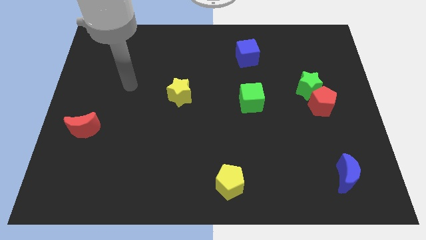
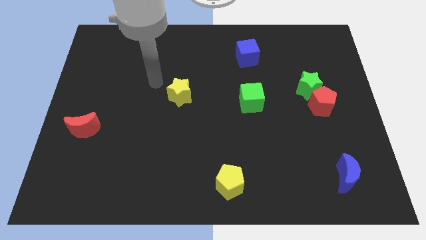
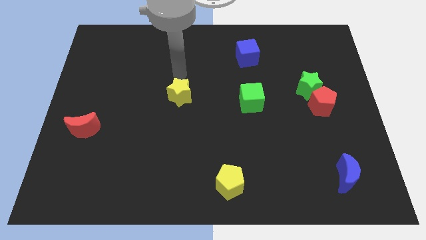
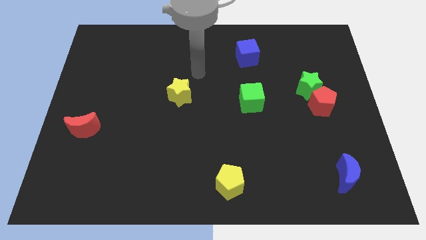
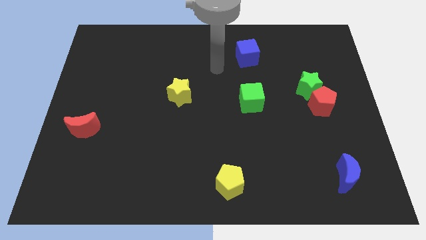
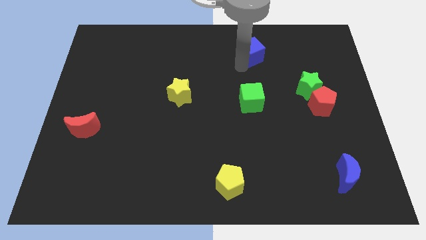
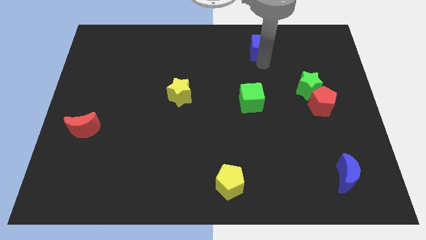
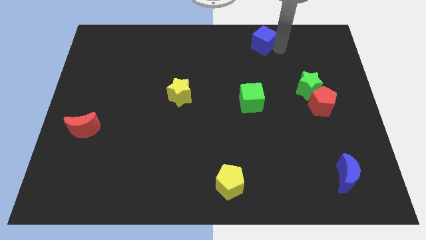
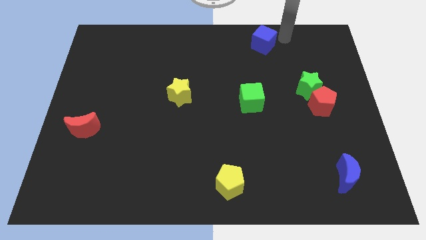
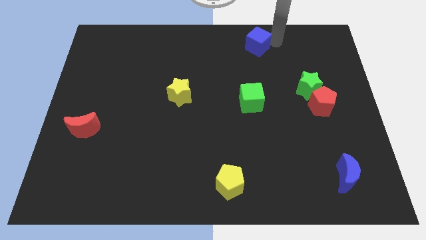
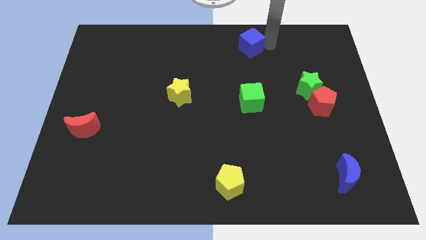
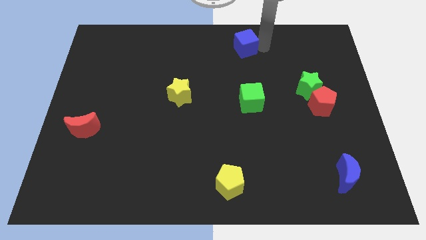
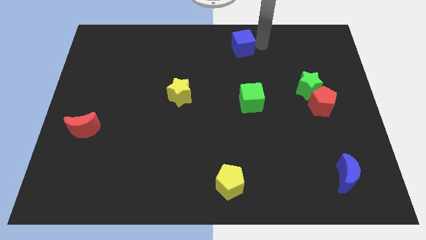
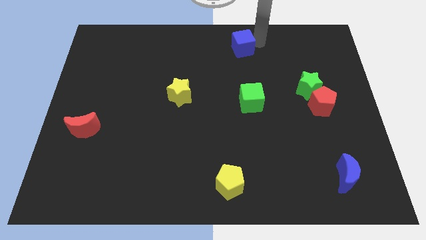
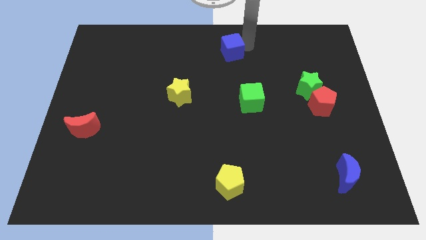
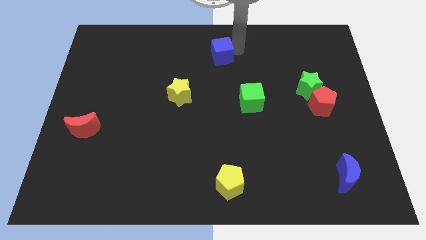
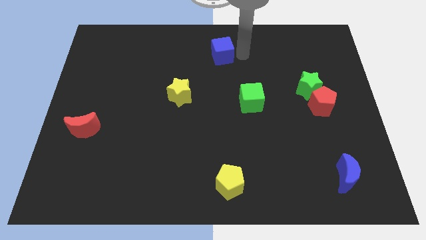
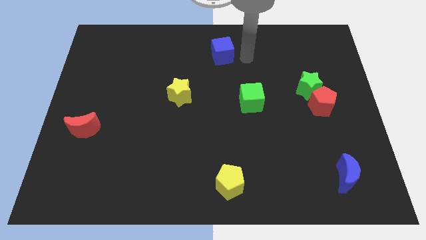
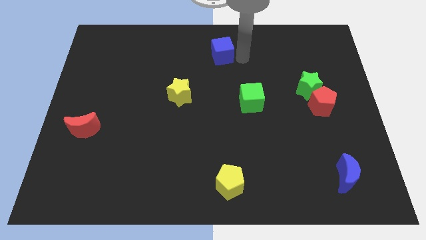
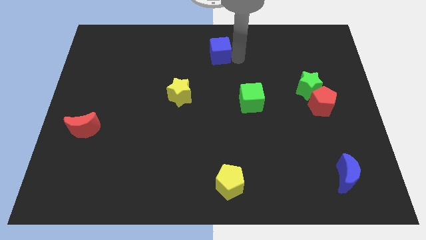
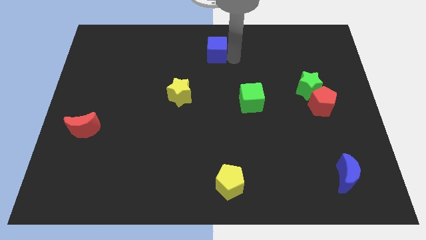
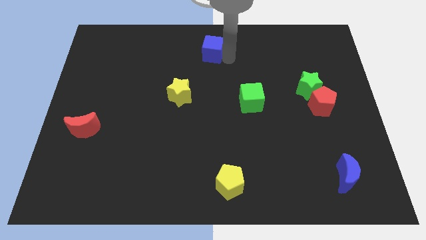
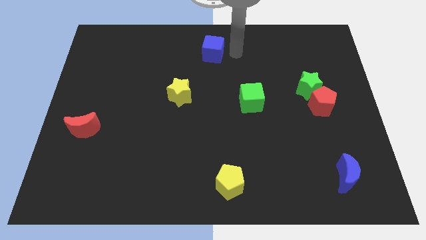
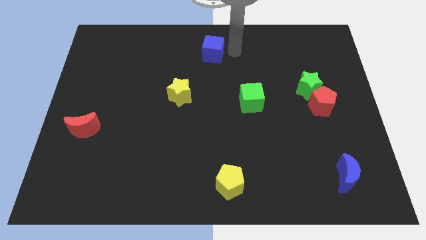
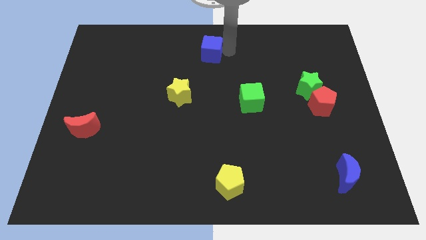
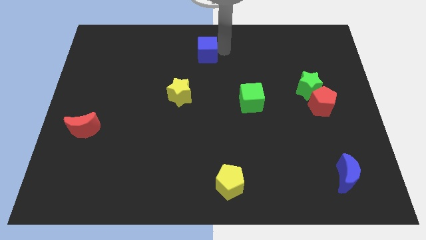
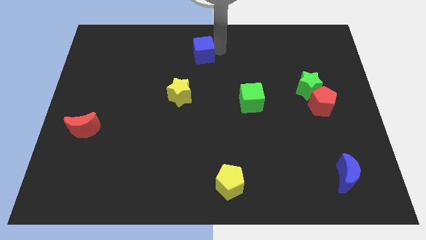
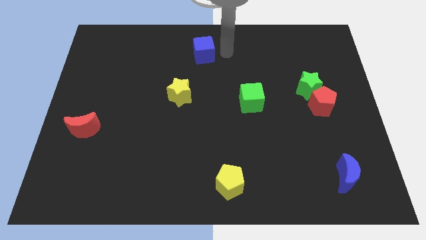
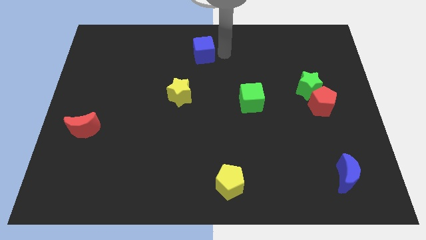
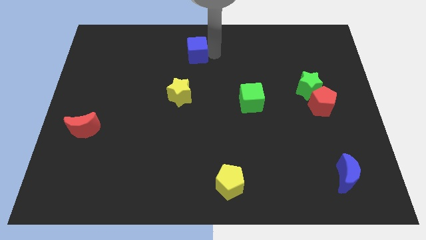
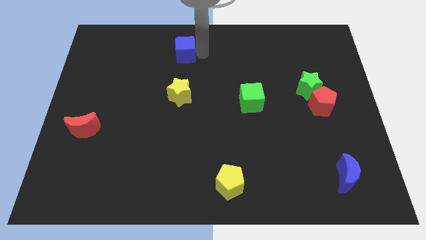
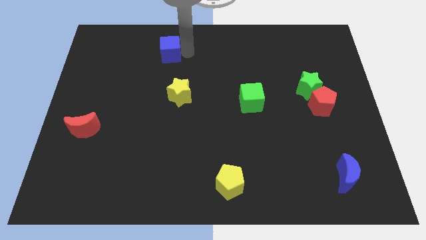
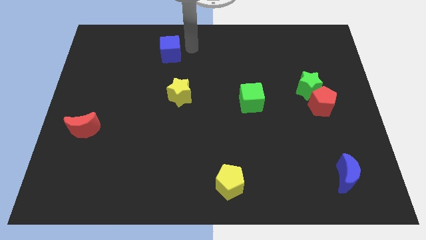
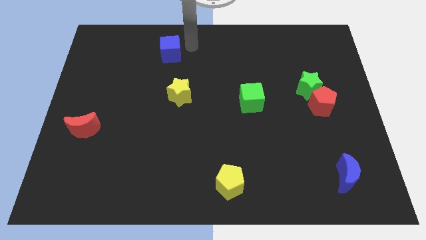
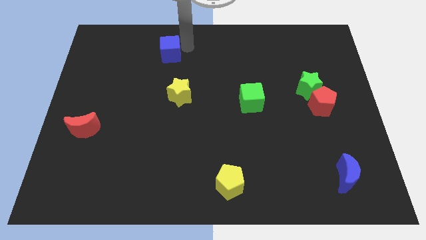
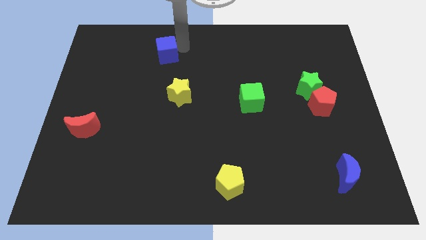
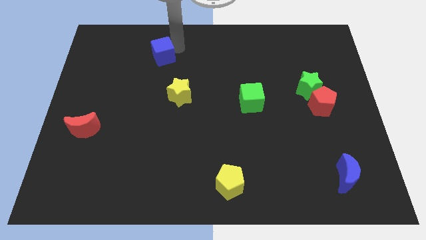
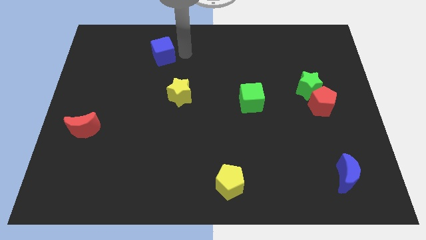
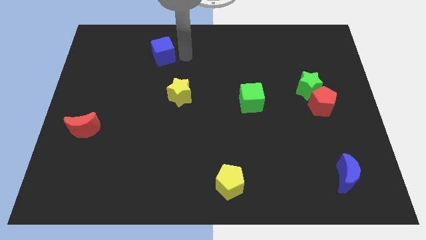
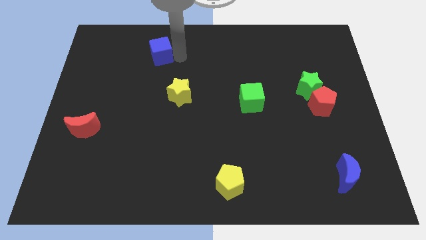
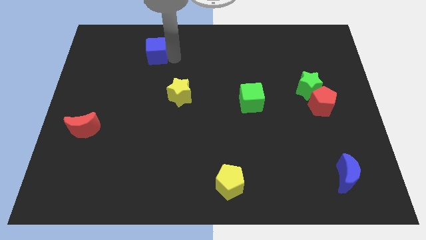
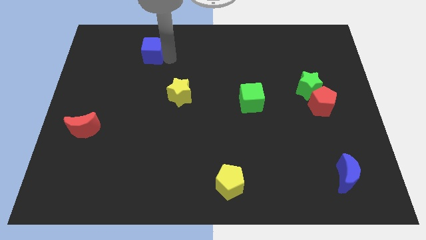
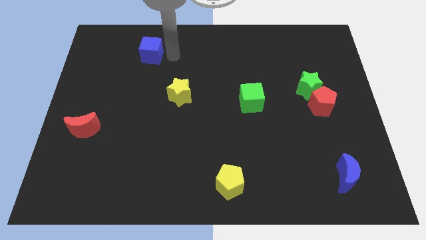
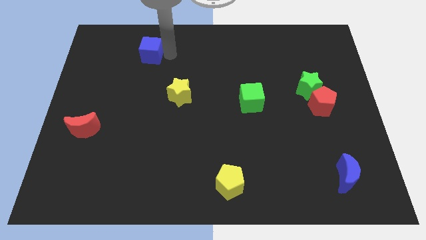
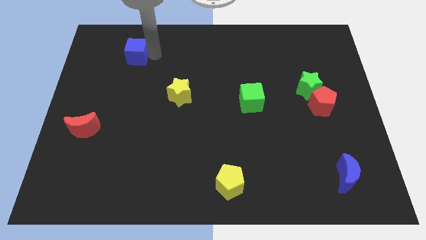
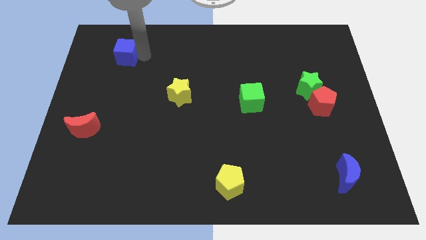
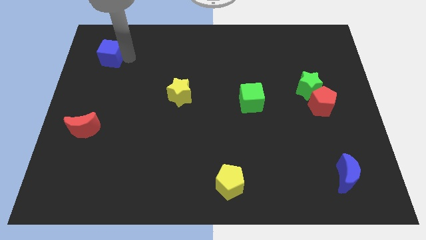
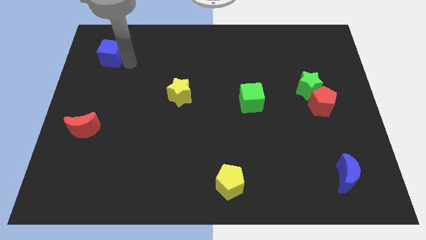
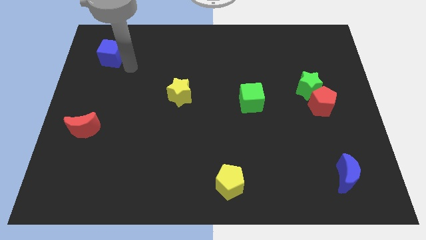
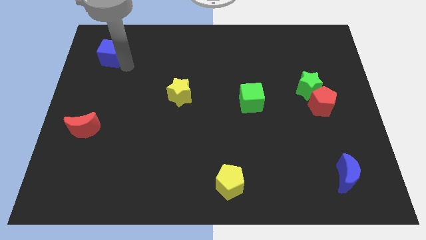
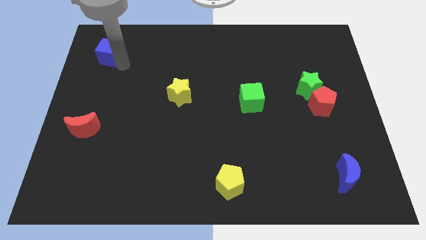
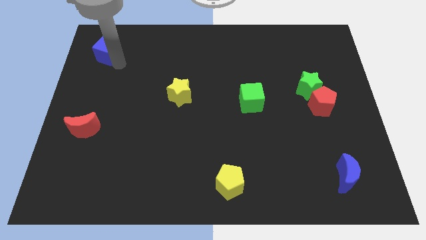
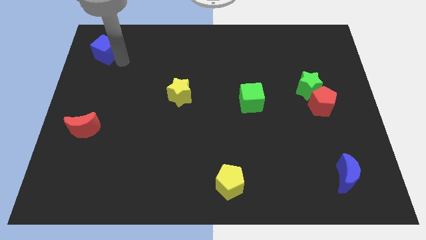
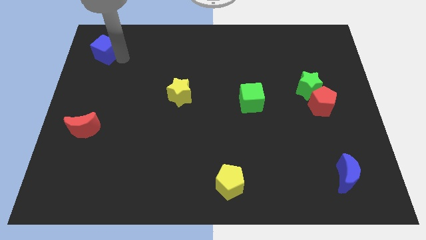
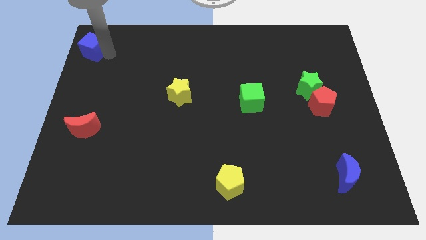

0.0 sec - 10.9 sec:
push the blue cube to the top left of the board

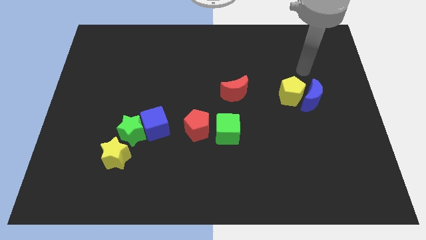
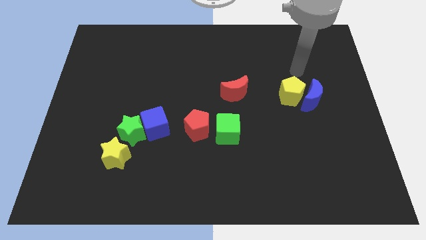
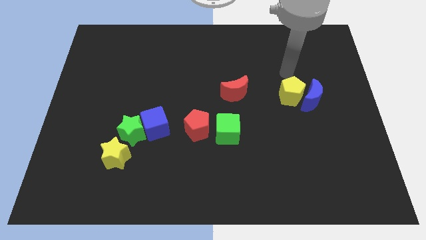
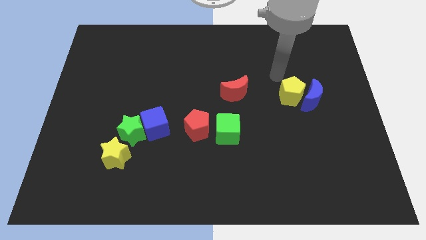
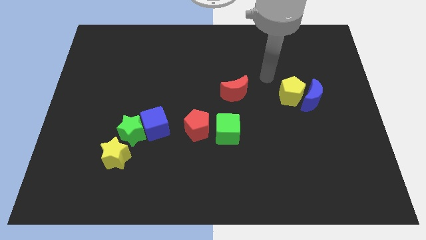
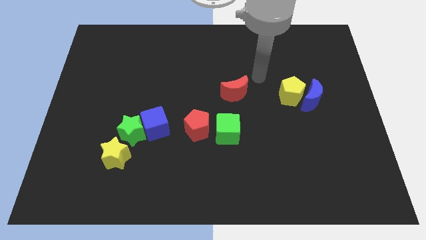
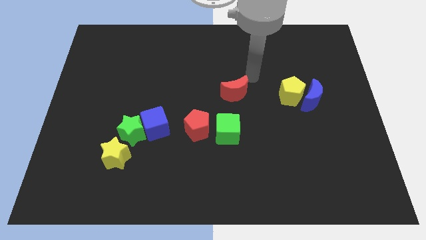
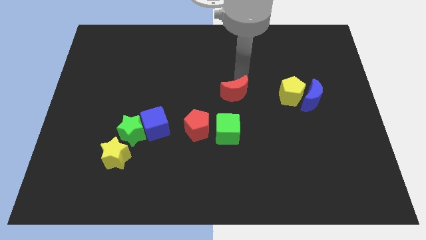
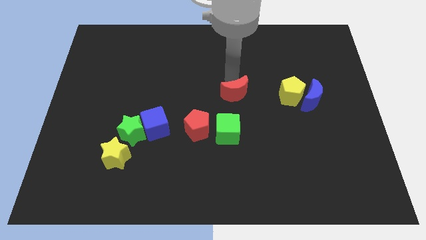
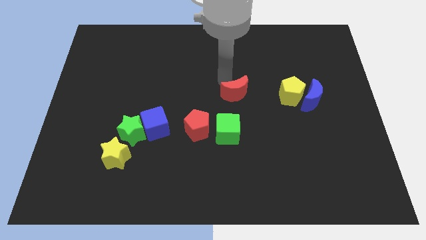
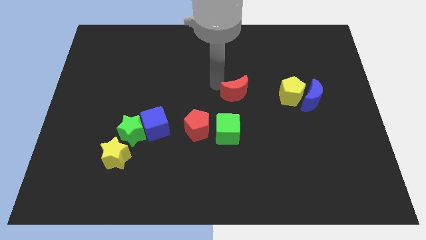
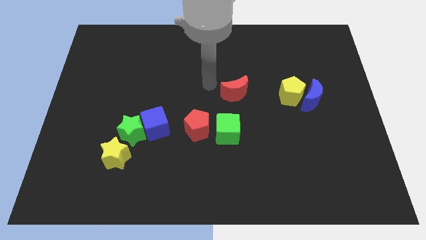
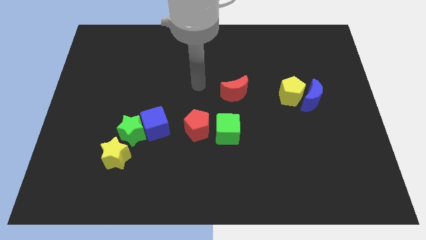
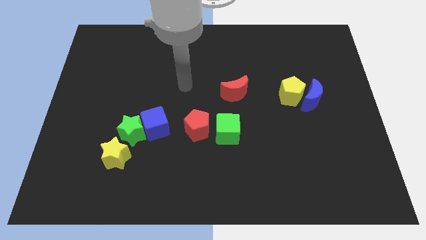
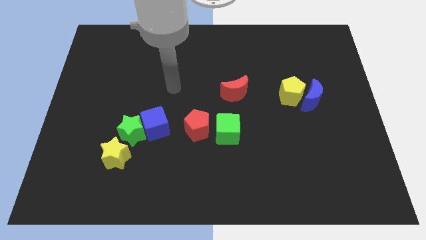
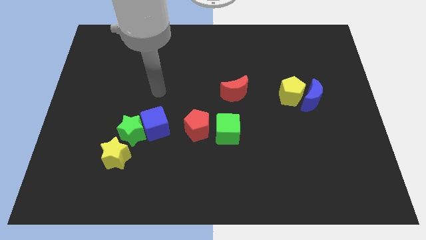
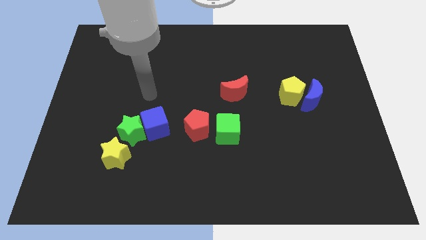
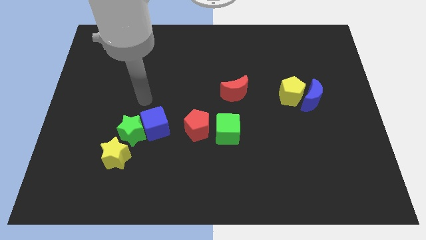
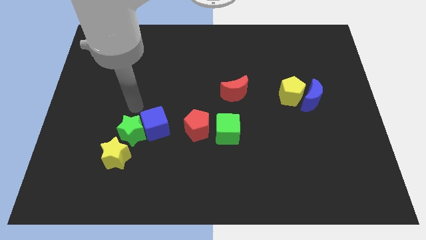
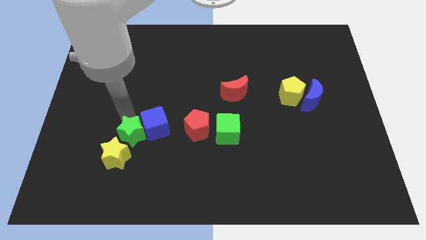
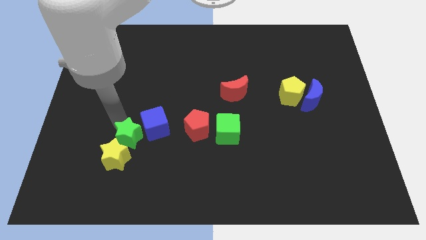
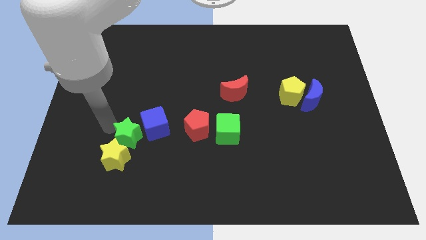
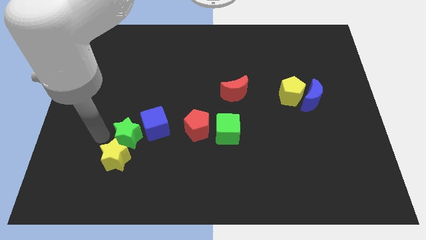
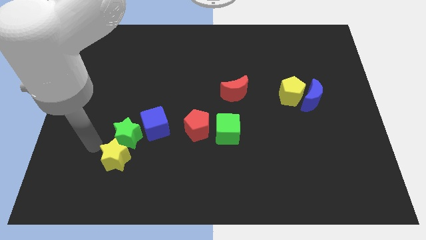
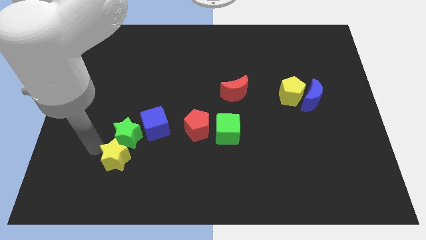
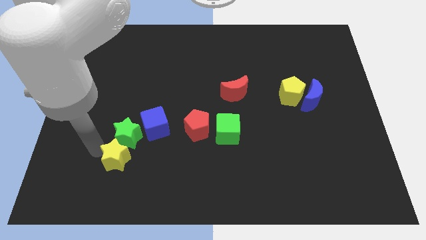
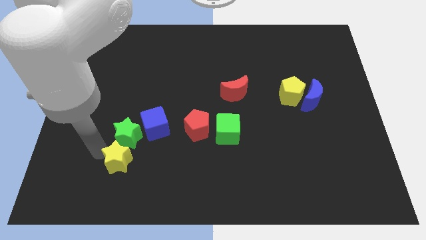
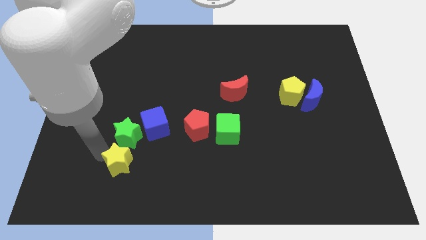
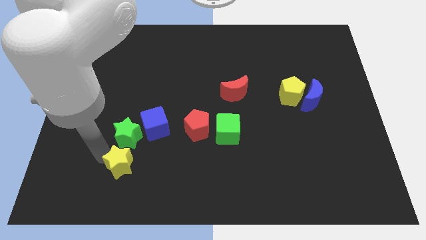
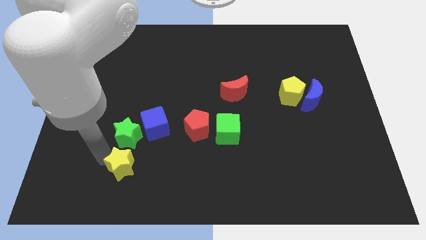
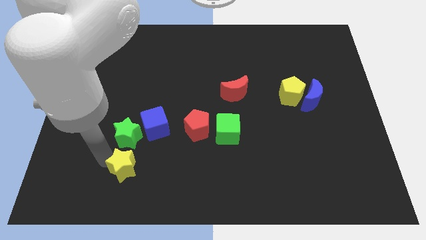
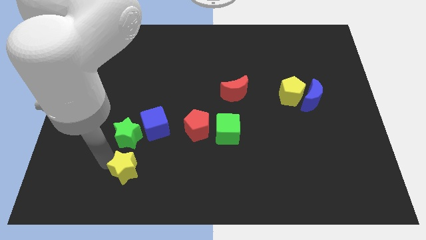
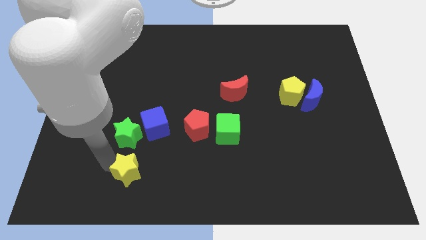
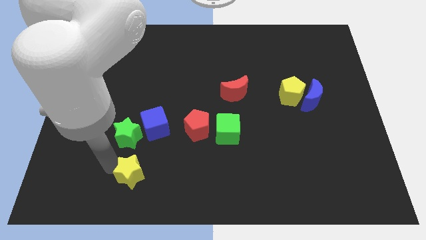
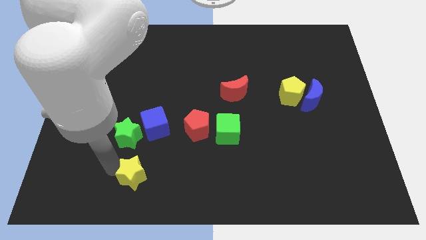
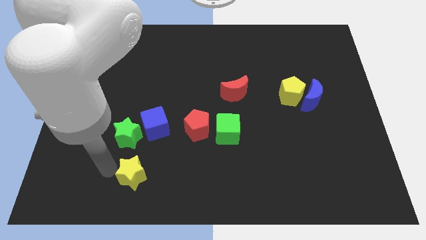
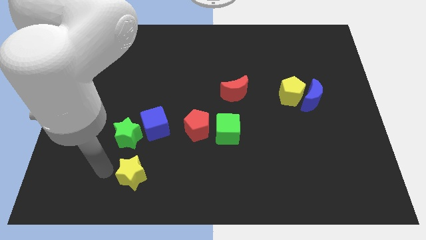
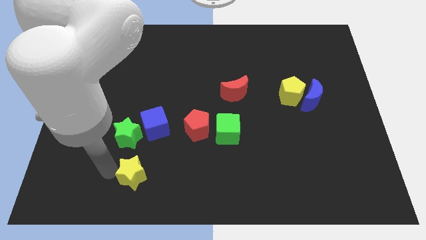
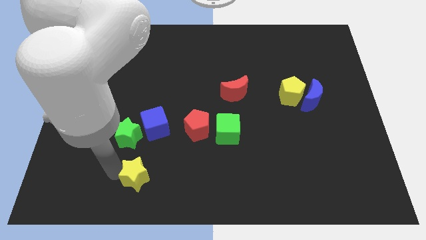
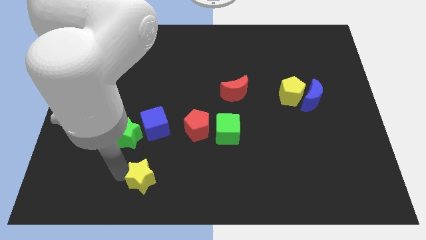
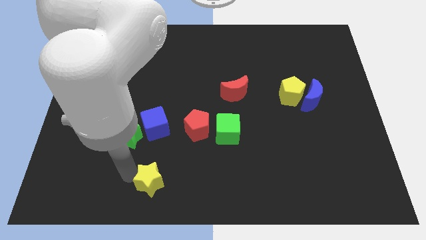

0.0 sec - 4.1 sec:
move the yellow star to the bottom
